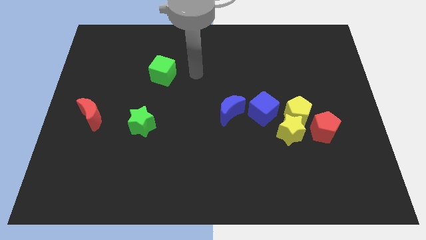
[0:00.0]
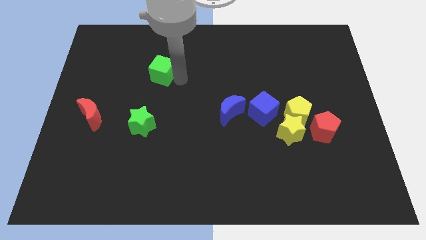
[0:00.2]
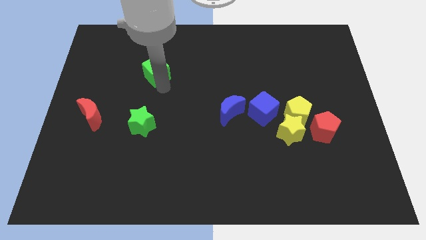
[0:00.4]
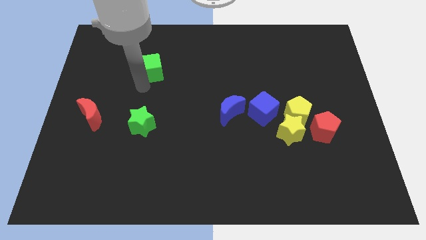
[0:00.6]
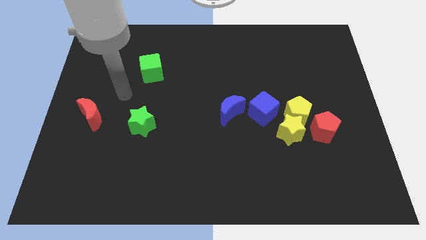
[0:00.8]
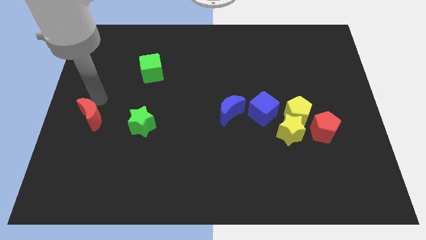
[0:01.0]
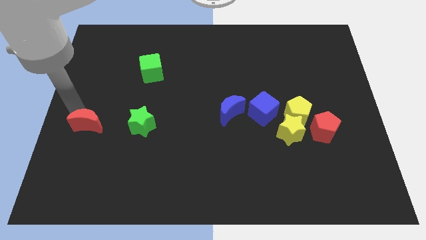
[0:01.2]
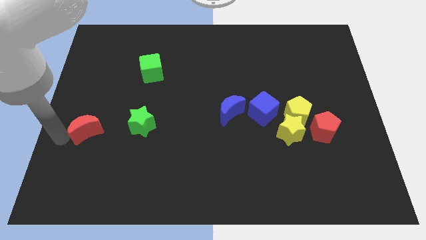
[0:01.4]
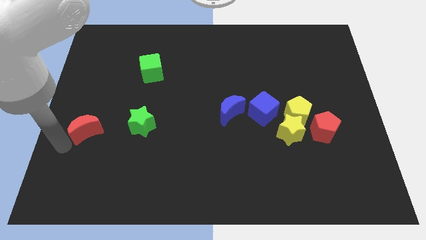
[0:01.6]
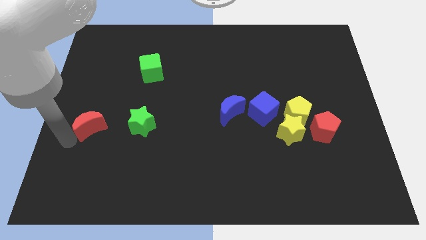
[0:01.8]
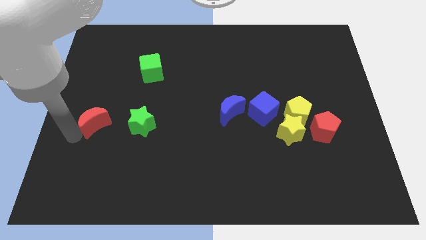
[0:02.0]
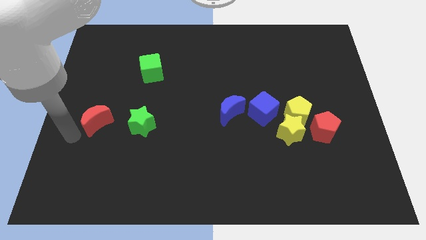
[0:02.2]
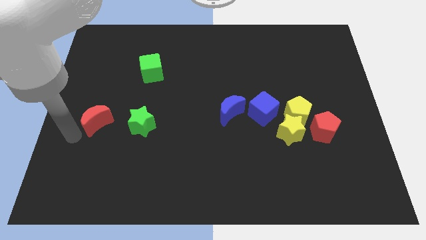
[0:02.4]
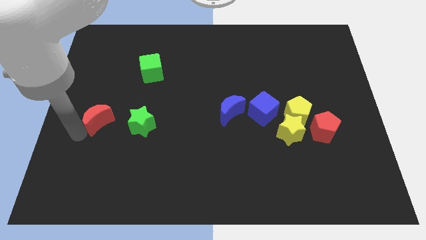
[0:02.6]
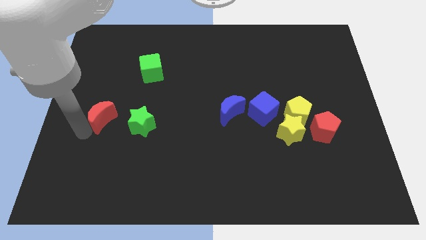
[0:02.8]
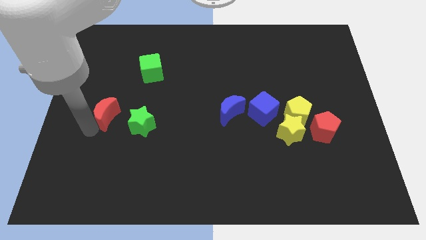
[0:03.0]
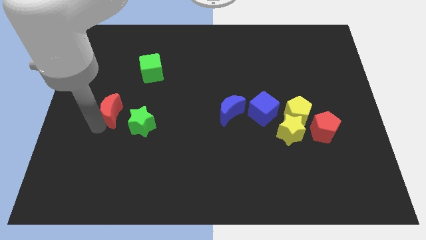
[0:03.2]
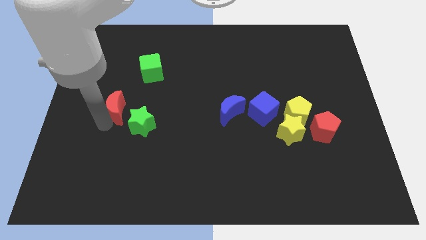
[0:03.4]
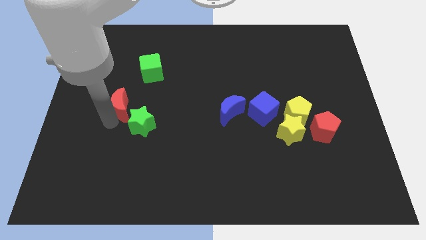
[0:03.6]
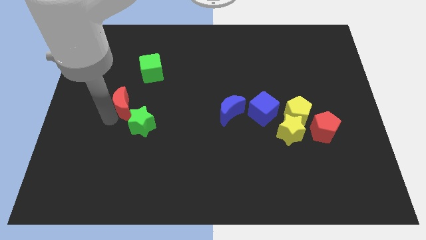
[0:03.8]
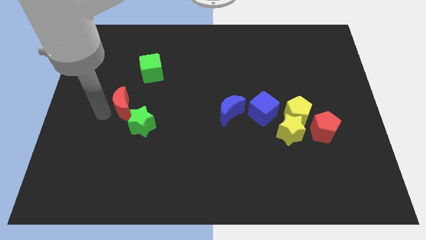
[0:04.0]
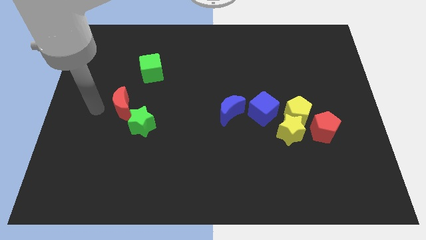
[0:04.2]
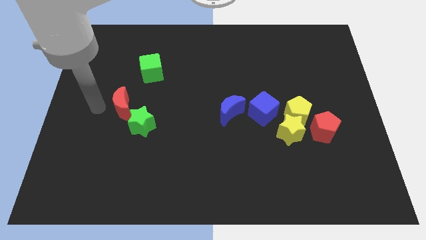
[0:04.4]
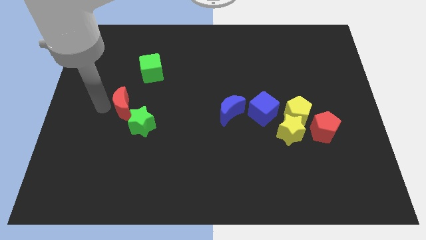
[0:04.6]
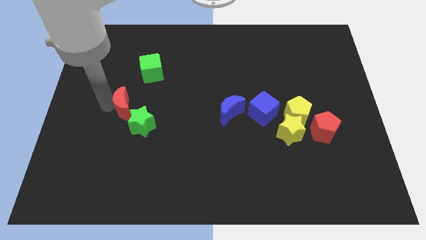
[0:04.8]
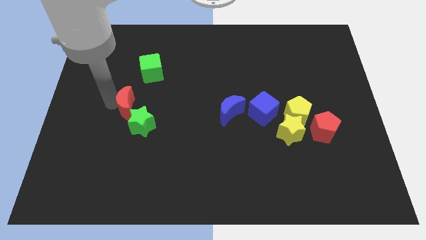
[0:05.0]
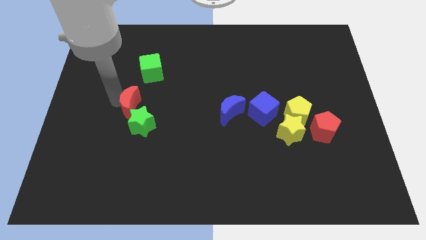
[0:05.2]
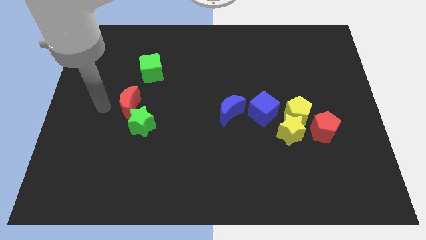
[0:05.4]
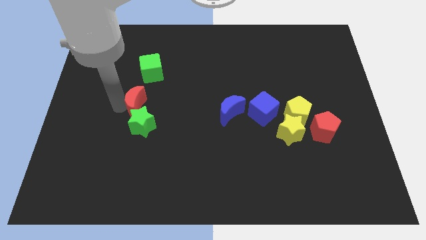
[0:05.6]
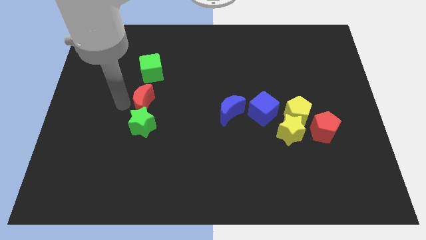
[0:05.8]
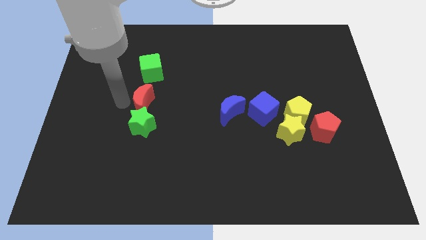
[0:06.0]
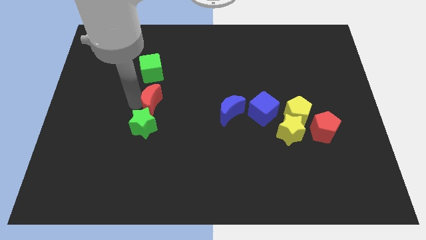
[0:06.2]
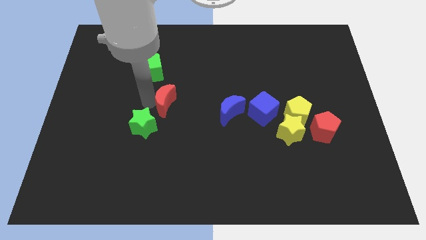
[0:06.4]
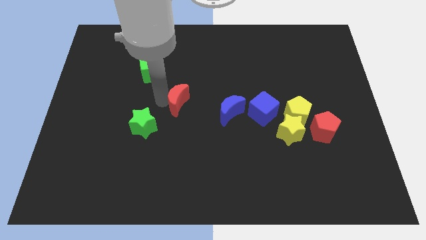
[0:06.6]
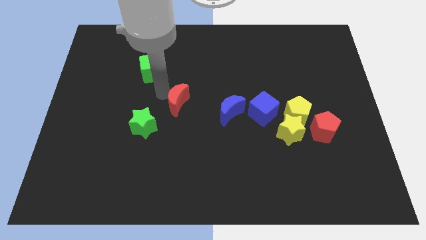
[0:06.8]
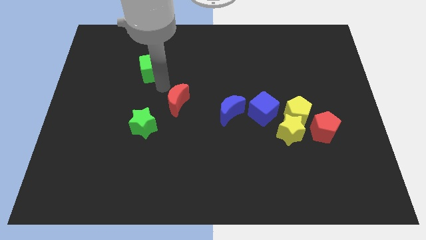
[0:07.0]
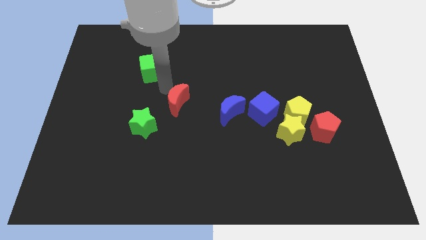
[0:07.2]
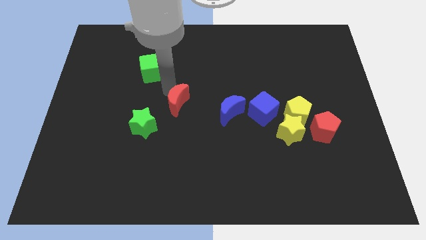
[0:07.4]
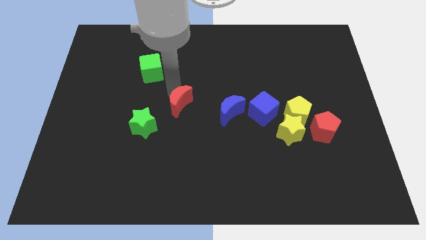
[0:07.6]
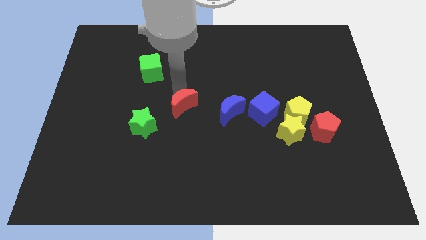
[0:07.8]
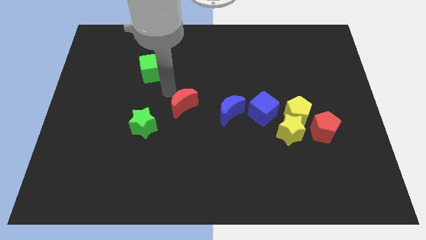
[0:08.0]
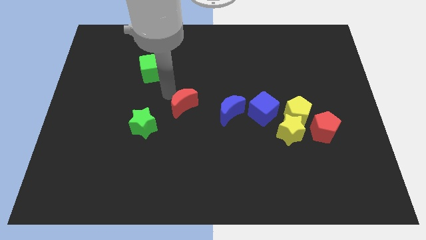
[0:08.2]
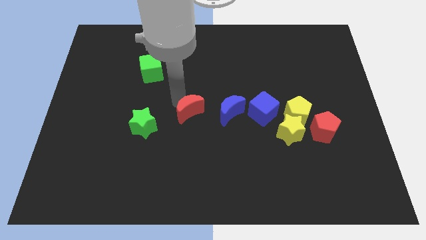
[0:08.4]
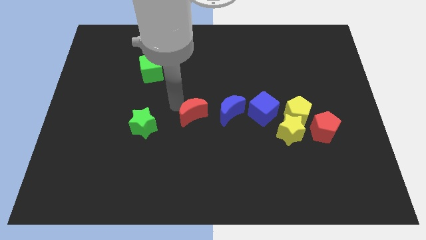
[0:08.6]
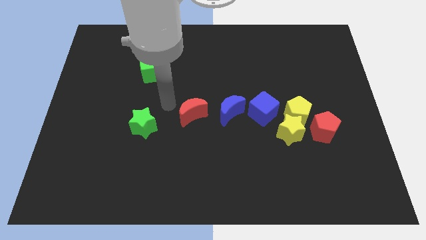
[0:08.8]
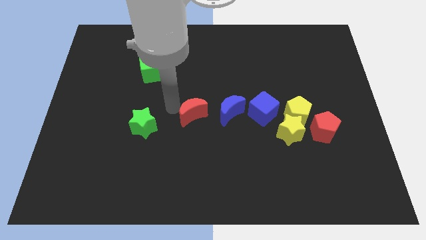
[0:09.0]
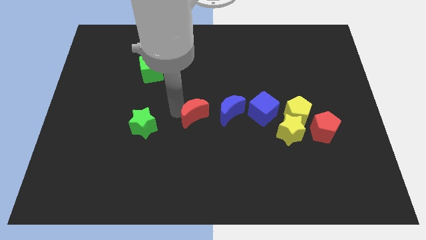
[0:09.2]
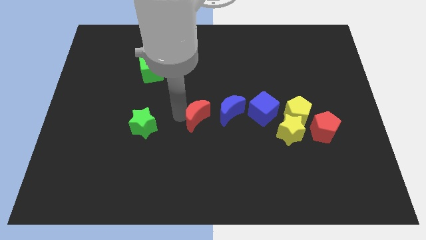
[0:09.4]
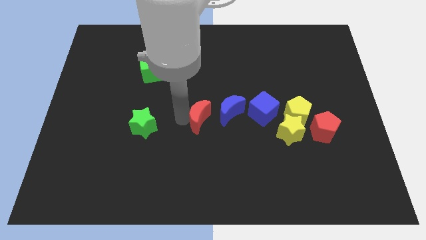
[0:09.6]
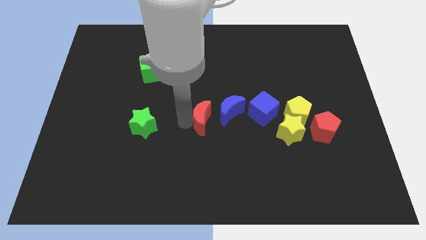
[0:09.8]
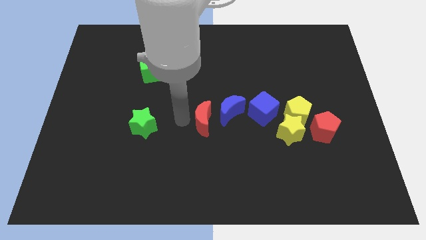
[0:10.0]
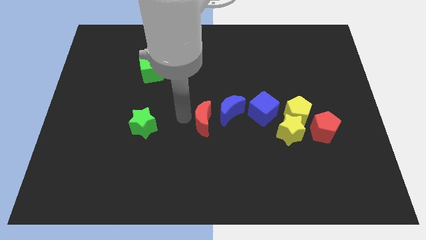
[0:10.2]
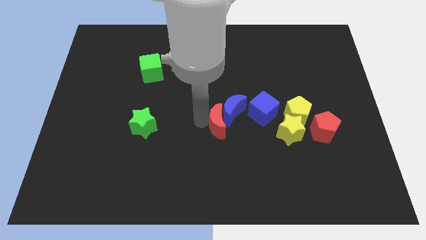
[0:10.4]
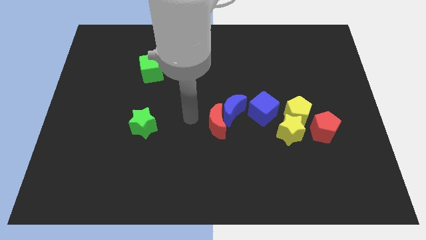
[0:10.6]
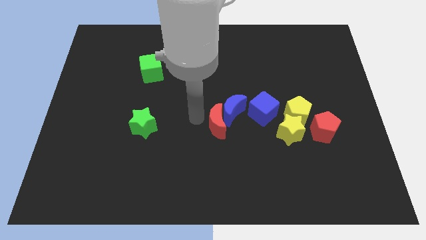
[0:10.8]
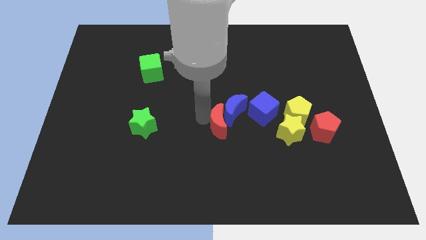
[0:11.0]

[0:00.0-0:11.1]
put the red moon to the left side of the yellow star

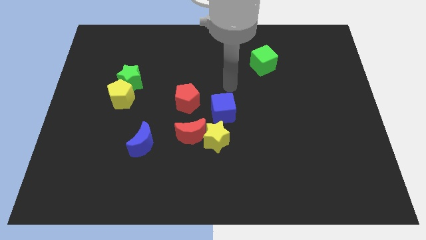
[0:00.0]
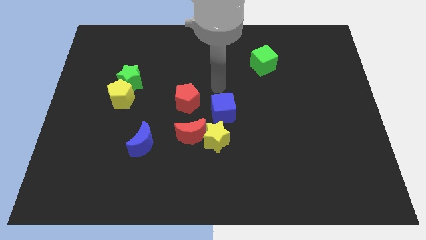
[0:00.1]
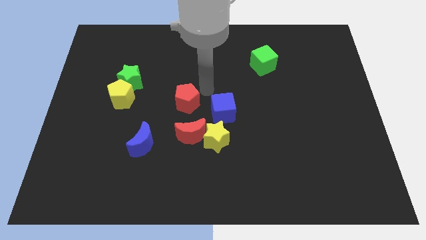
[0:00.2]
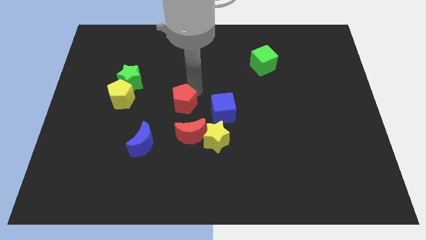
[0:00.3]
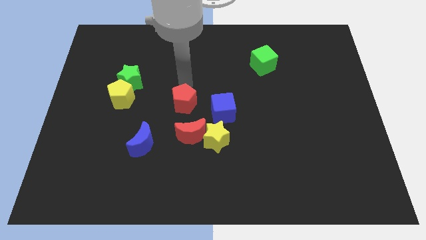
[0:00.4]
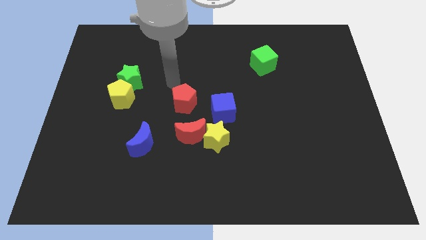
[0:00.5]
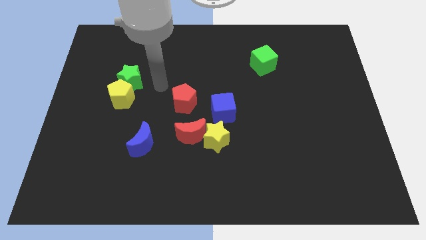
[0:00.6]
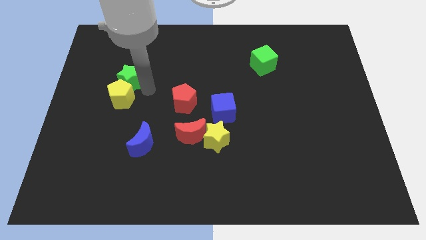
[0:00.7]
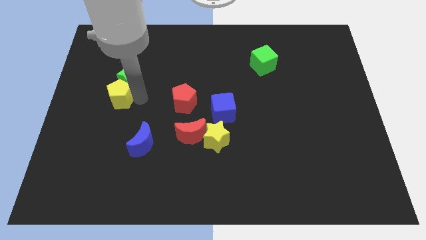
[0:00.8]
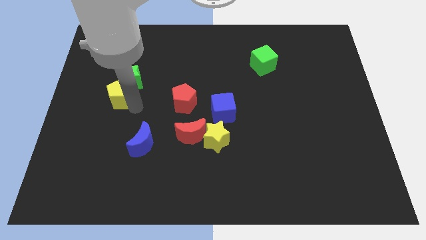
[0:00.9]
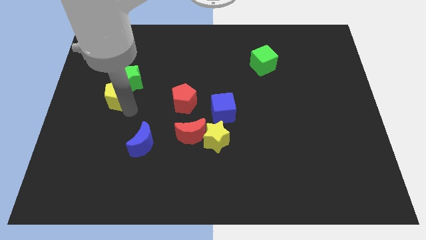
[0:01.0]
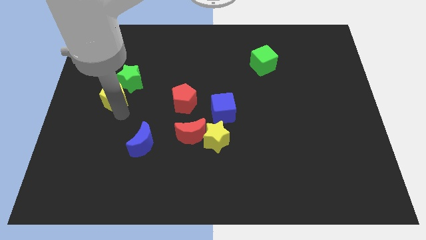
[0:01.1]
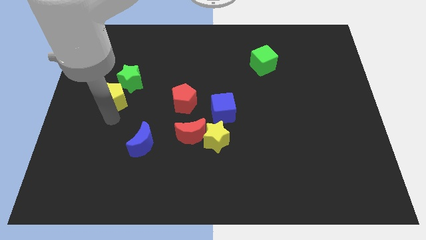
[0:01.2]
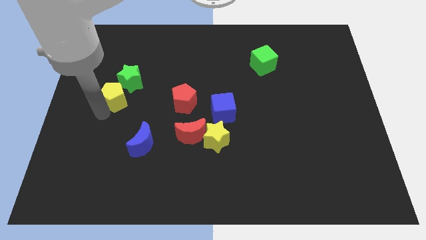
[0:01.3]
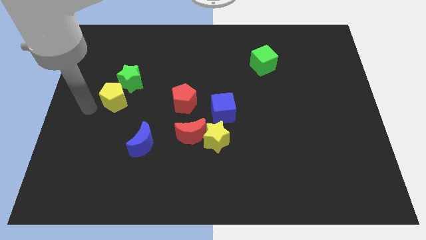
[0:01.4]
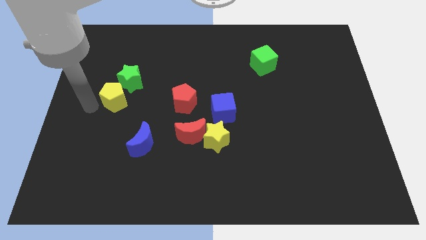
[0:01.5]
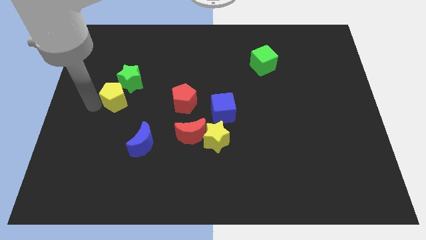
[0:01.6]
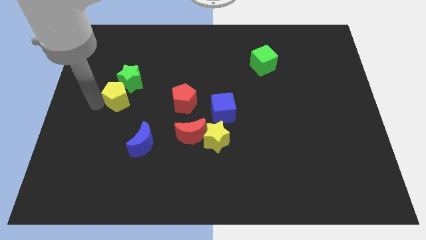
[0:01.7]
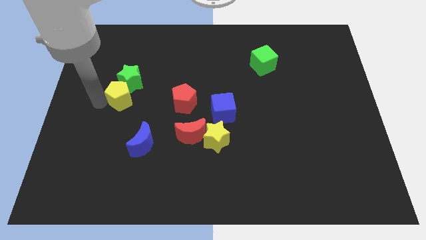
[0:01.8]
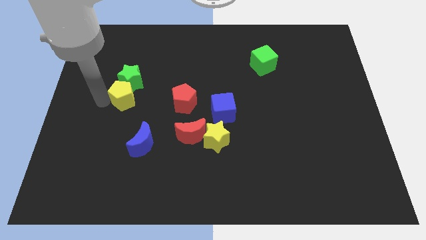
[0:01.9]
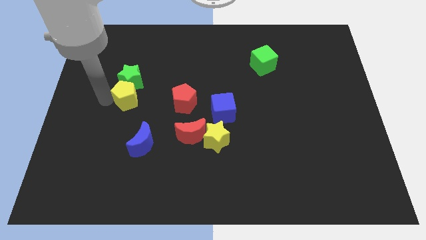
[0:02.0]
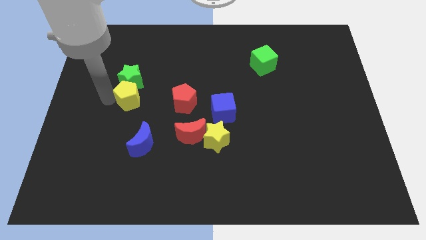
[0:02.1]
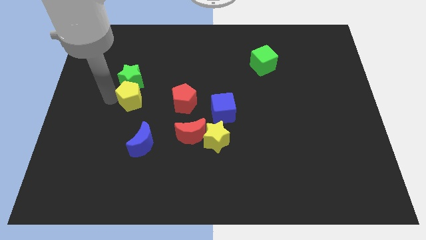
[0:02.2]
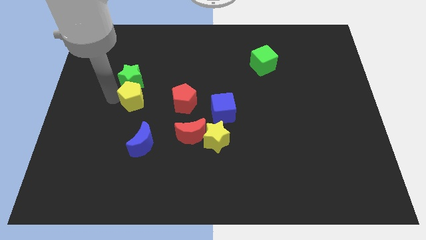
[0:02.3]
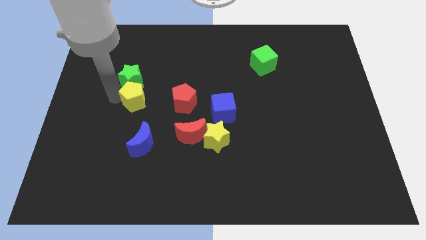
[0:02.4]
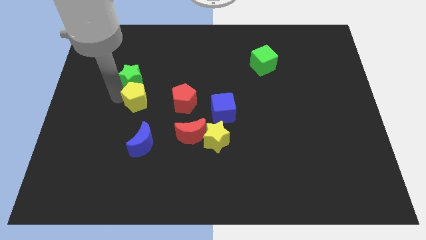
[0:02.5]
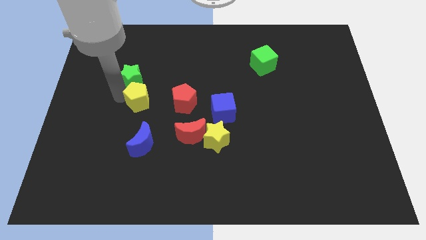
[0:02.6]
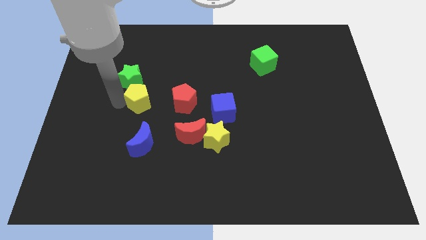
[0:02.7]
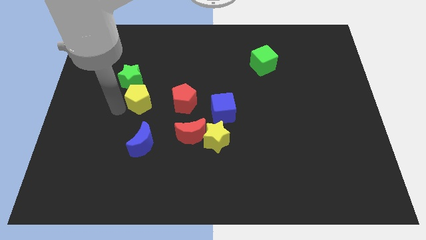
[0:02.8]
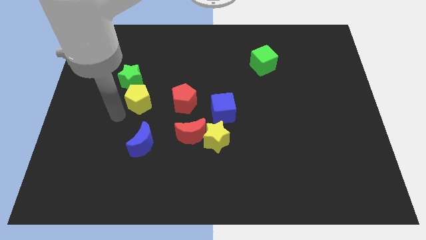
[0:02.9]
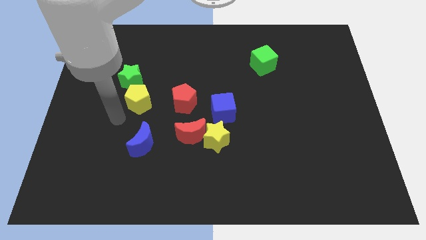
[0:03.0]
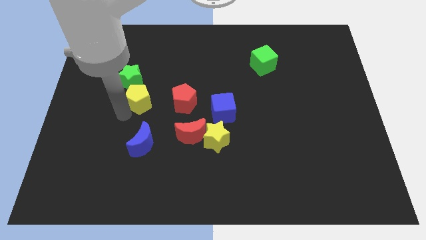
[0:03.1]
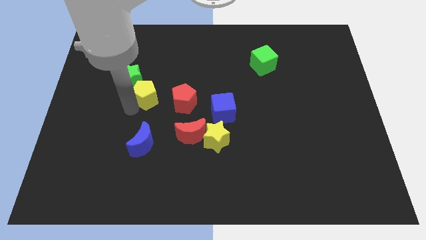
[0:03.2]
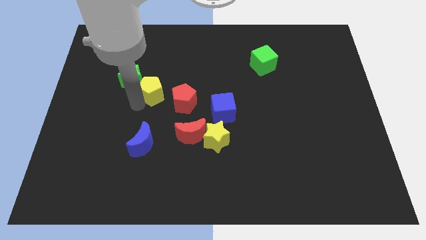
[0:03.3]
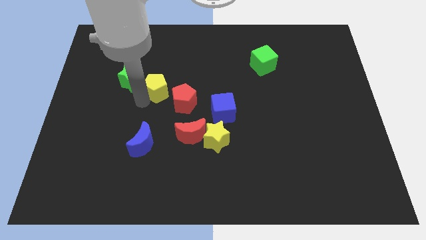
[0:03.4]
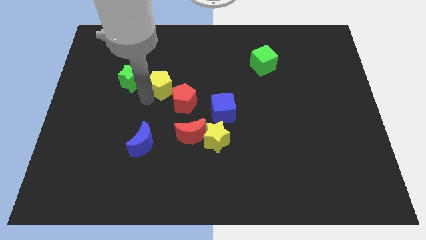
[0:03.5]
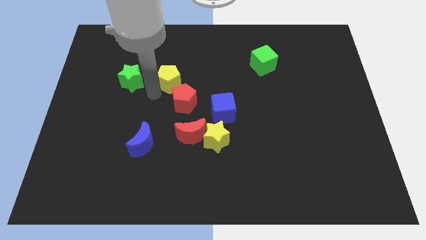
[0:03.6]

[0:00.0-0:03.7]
put the yellow pentagon above the red pentagon
